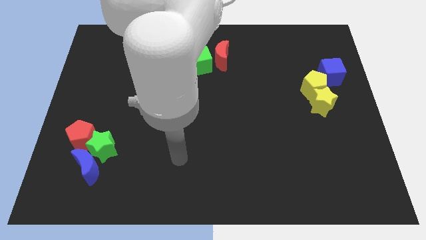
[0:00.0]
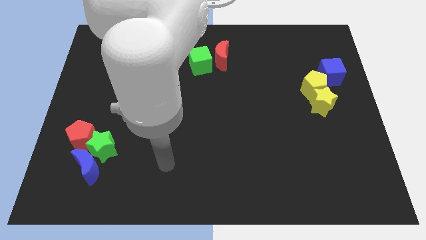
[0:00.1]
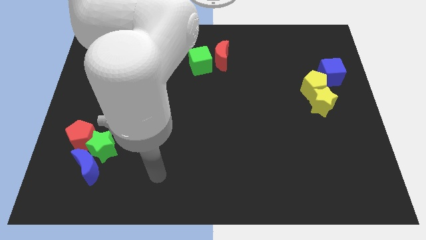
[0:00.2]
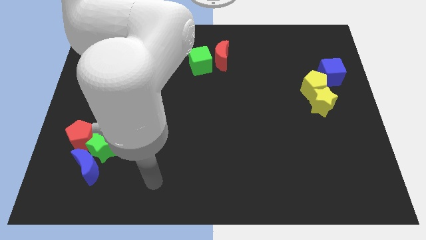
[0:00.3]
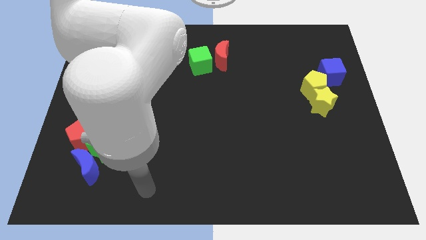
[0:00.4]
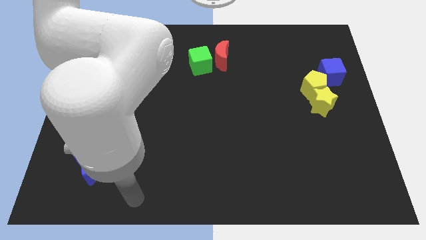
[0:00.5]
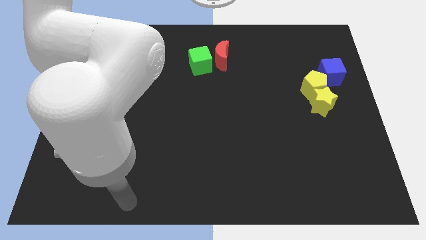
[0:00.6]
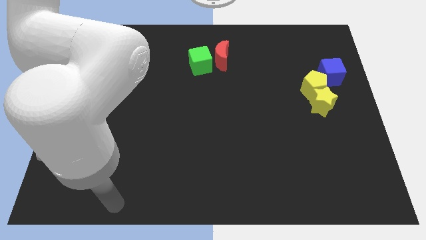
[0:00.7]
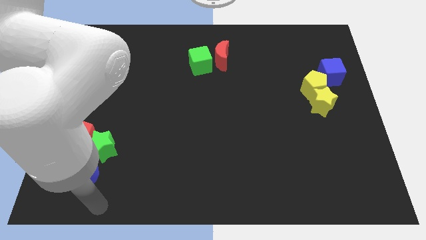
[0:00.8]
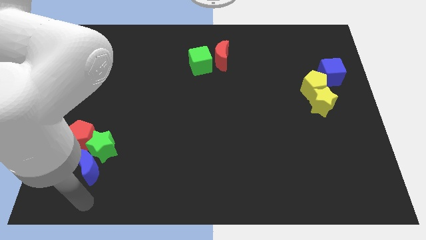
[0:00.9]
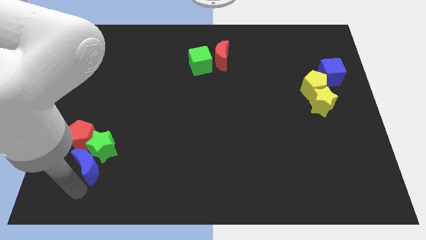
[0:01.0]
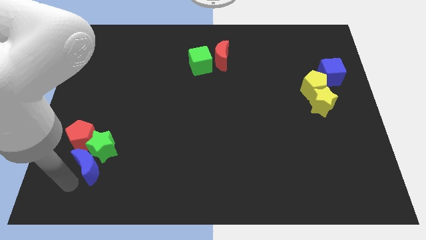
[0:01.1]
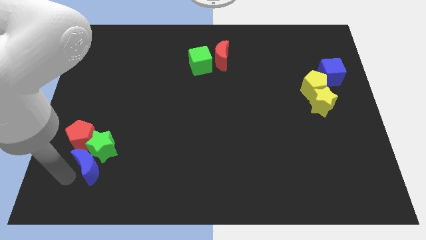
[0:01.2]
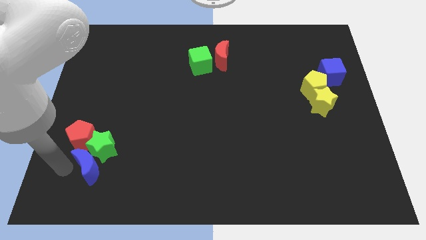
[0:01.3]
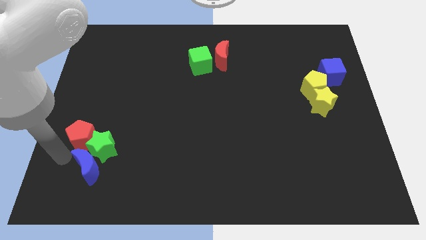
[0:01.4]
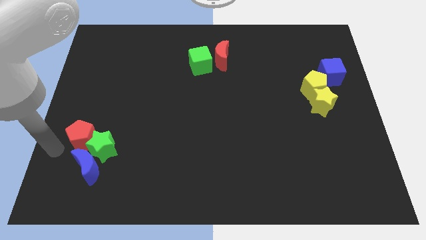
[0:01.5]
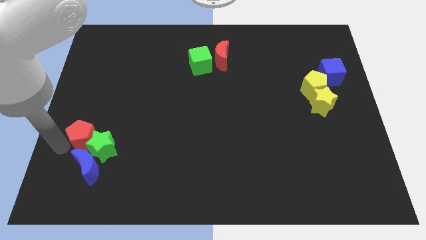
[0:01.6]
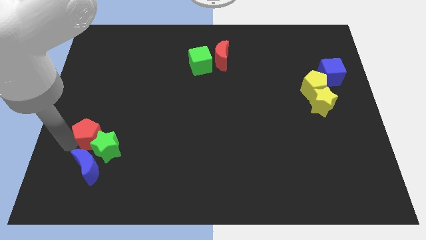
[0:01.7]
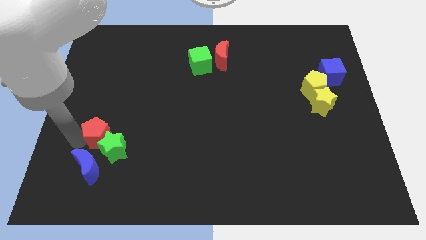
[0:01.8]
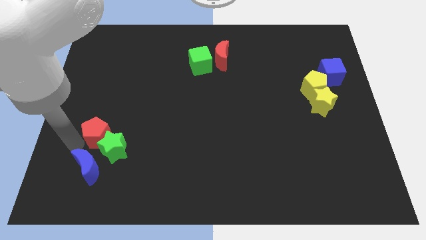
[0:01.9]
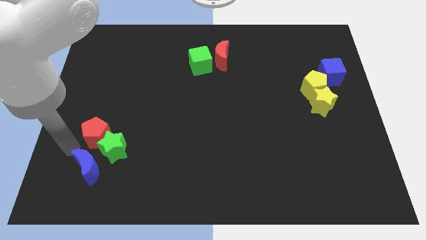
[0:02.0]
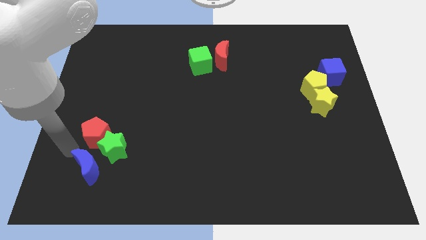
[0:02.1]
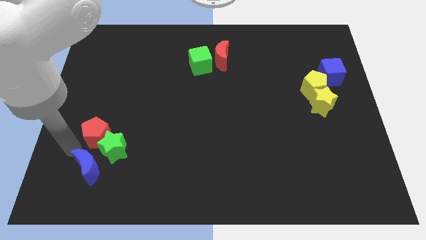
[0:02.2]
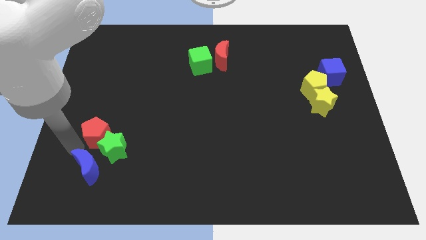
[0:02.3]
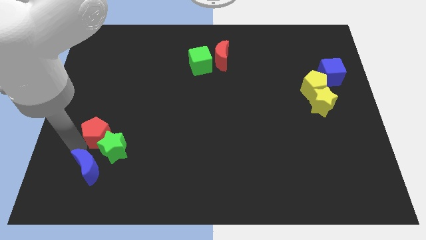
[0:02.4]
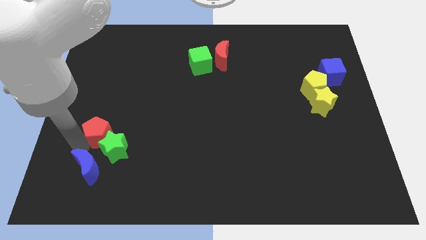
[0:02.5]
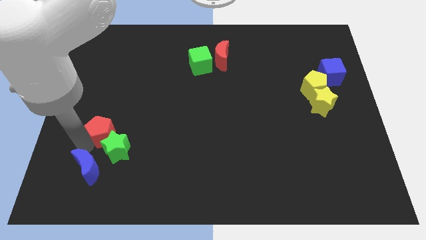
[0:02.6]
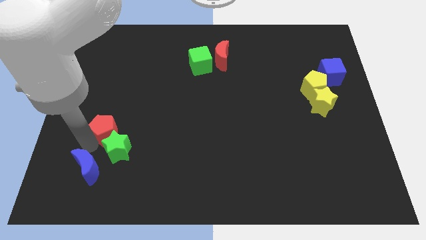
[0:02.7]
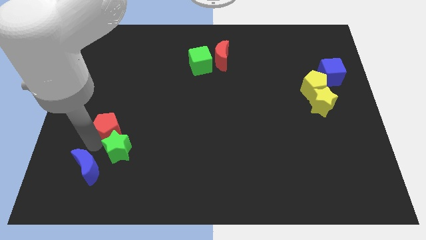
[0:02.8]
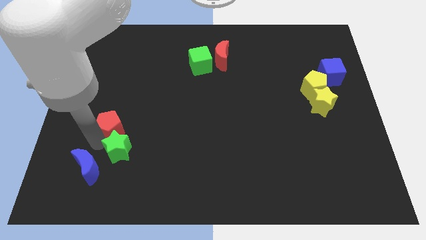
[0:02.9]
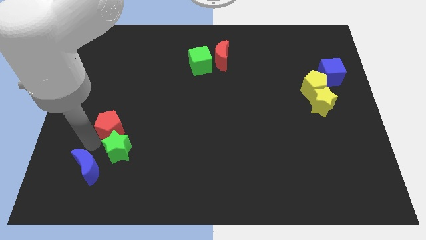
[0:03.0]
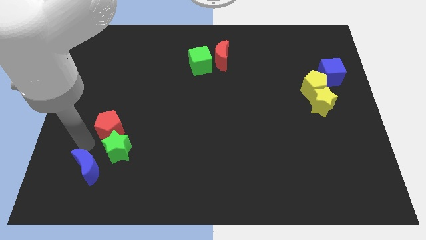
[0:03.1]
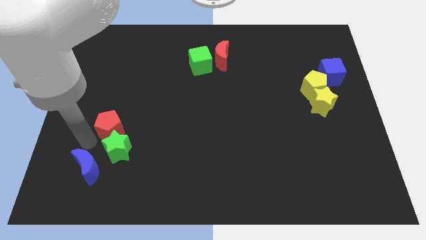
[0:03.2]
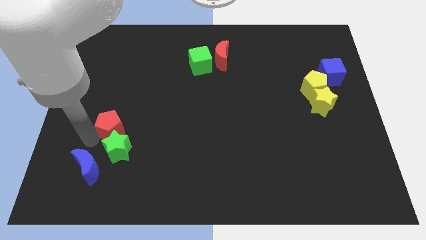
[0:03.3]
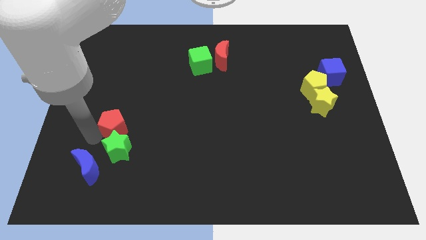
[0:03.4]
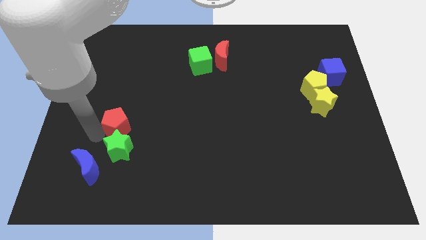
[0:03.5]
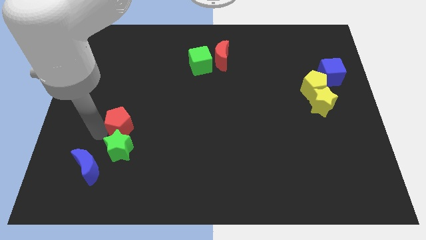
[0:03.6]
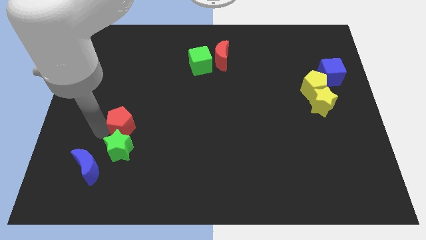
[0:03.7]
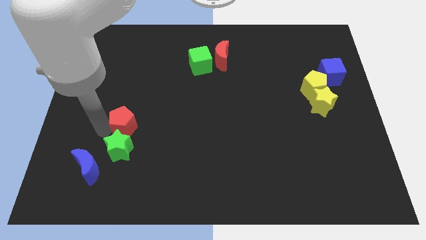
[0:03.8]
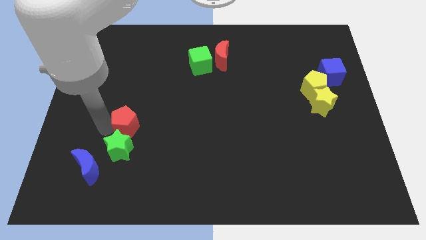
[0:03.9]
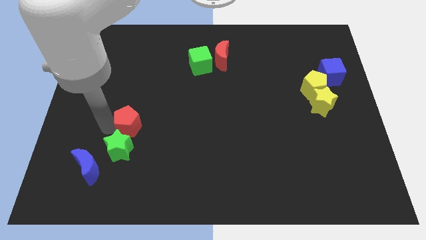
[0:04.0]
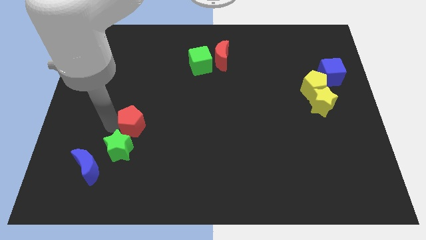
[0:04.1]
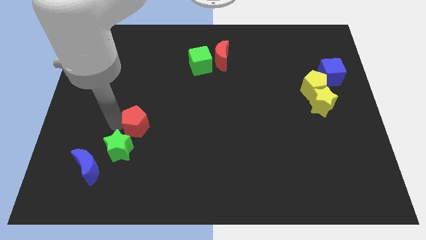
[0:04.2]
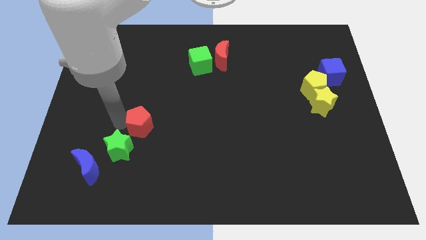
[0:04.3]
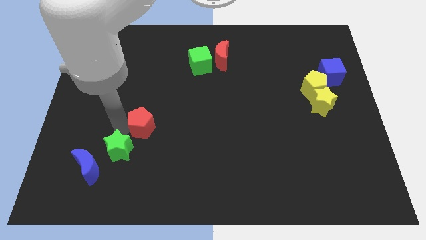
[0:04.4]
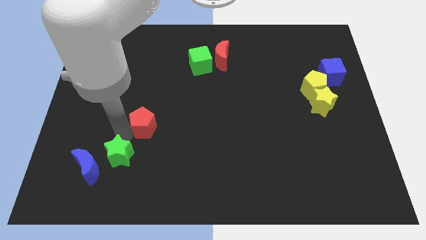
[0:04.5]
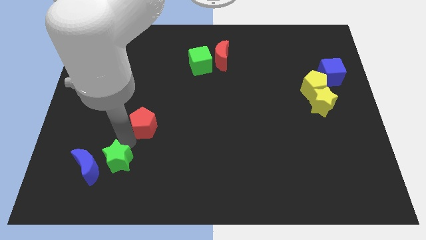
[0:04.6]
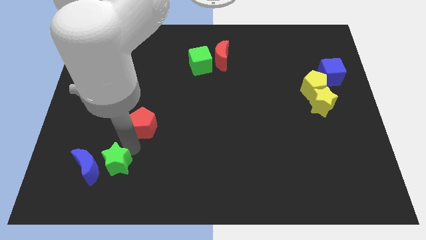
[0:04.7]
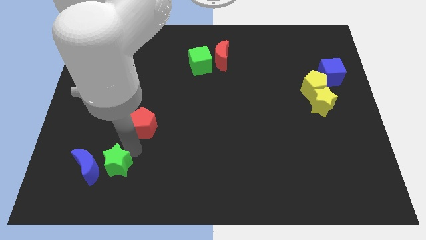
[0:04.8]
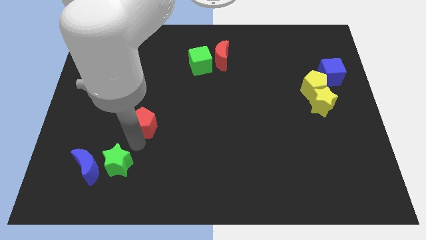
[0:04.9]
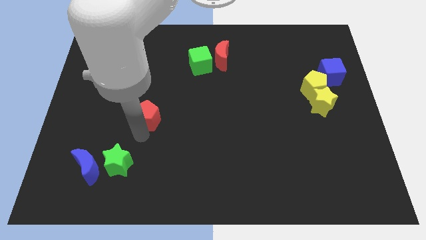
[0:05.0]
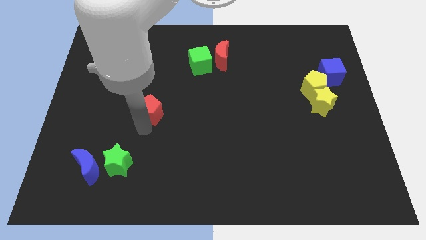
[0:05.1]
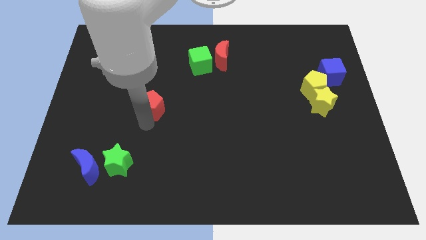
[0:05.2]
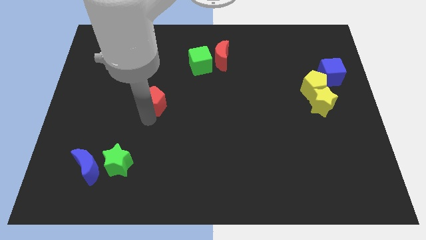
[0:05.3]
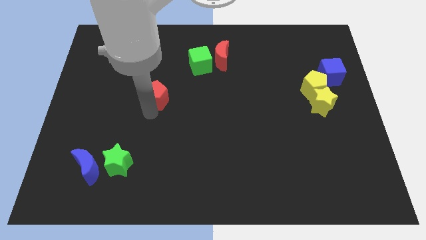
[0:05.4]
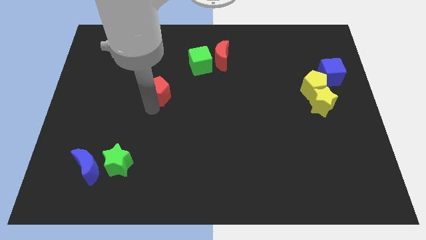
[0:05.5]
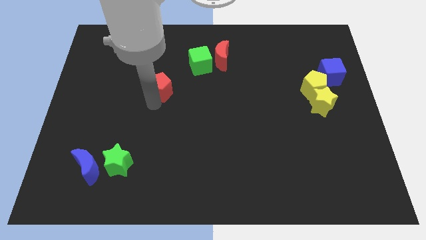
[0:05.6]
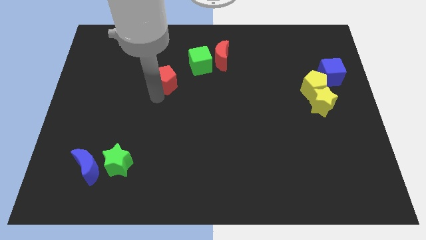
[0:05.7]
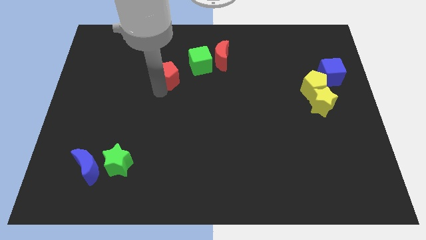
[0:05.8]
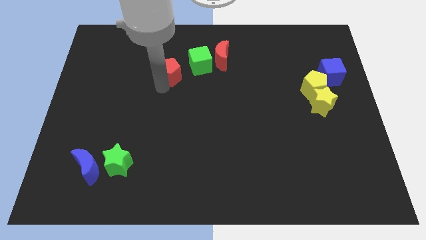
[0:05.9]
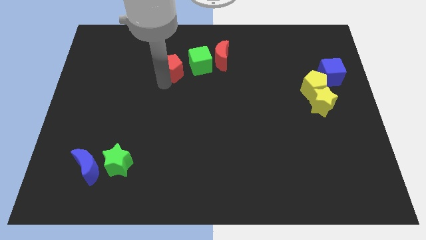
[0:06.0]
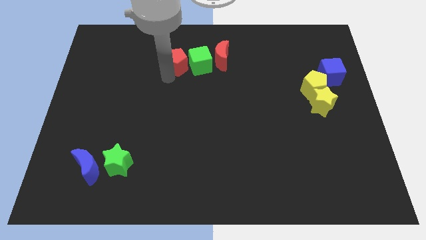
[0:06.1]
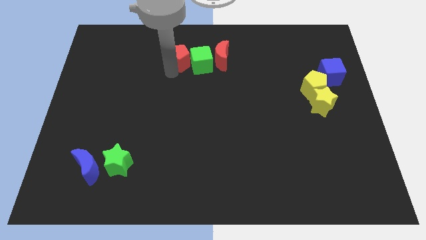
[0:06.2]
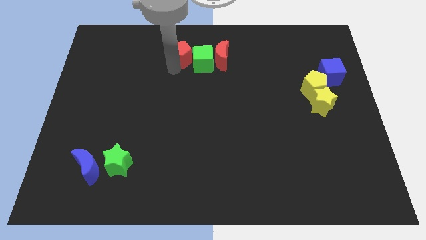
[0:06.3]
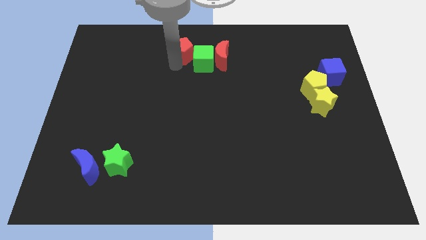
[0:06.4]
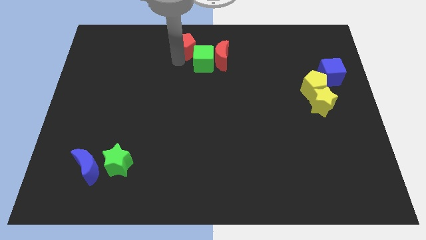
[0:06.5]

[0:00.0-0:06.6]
push the red pentagon to the towards your base

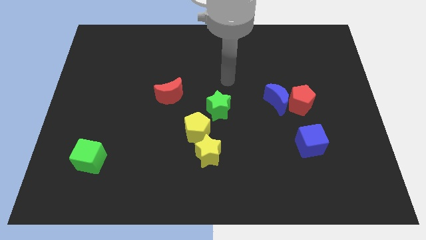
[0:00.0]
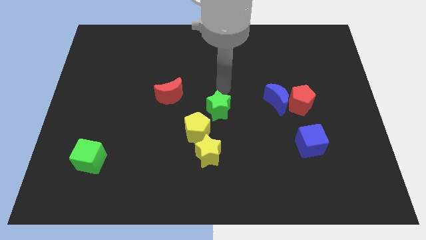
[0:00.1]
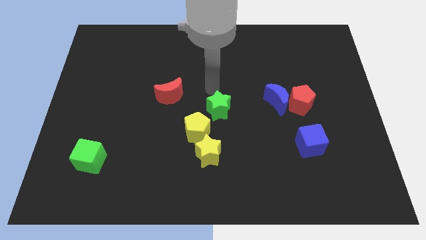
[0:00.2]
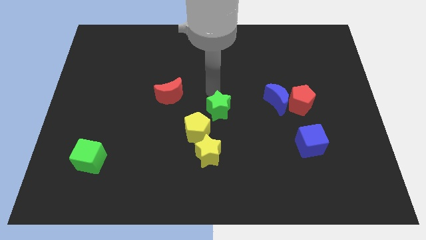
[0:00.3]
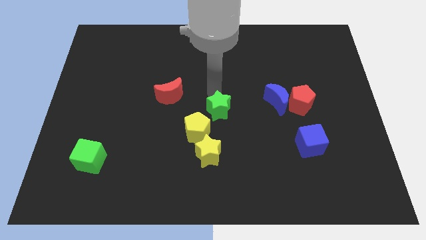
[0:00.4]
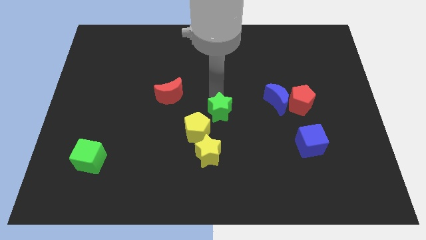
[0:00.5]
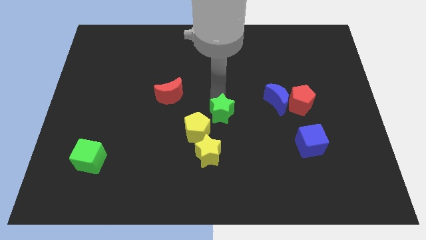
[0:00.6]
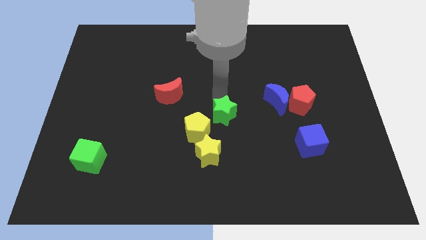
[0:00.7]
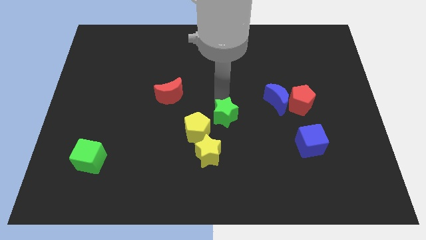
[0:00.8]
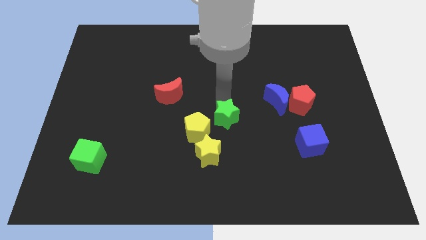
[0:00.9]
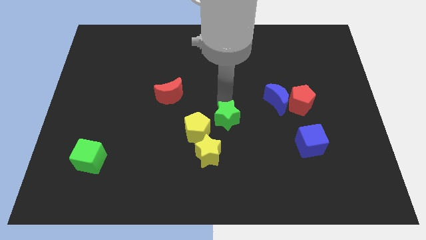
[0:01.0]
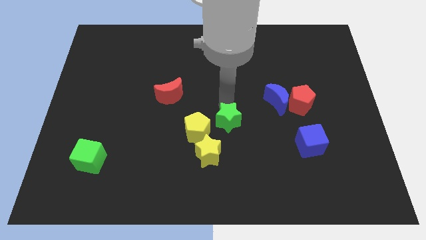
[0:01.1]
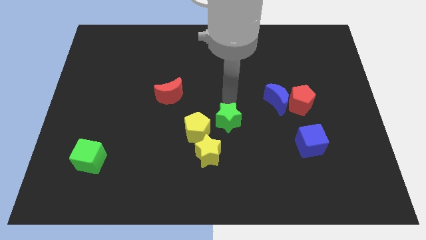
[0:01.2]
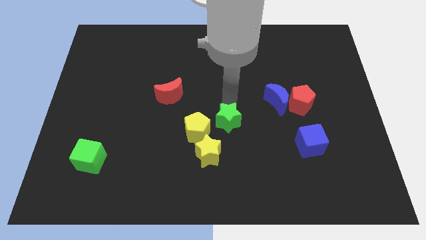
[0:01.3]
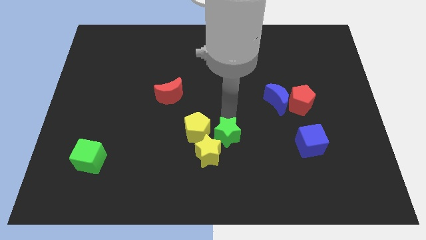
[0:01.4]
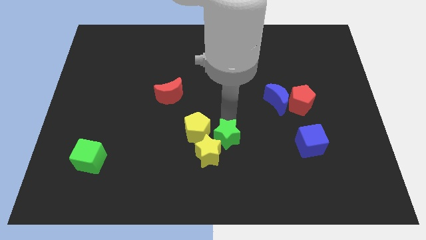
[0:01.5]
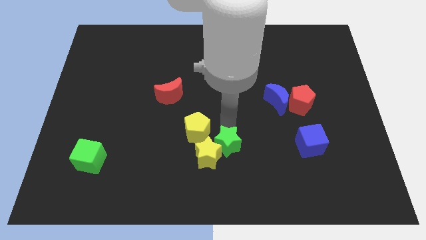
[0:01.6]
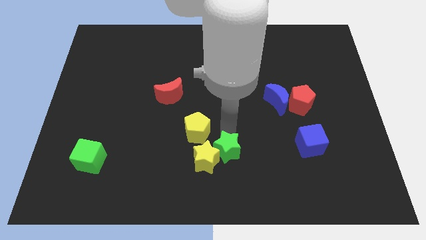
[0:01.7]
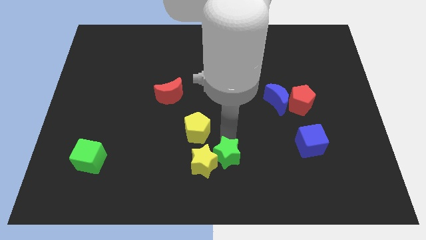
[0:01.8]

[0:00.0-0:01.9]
put the green star to the bottom
